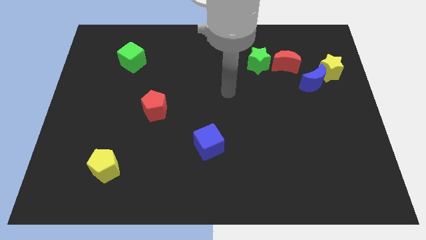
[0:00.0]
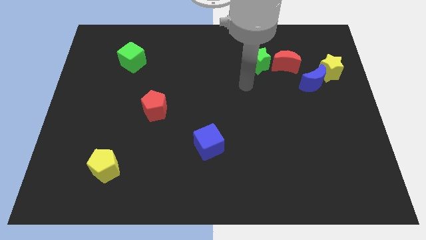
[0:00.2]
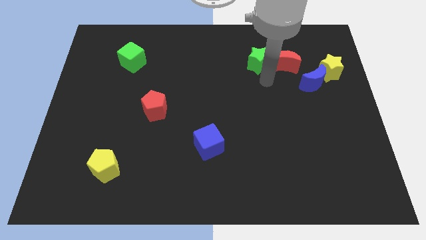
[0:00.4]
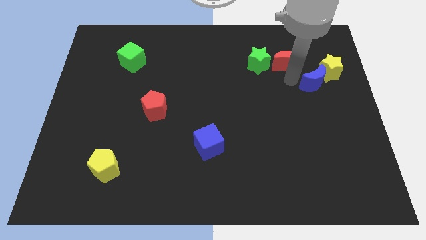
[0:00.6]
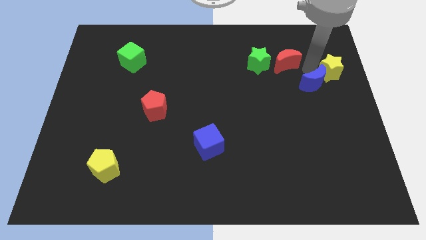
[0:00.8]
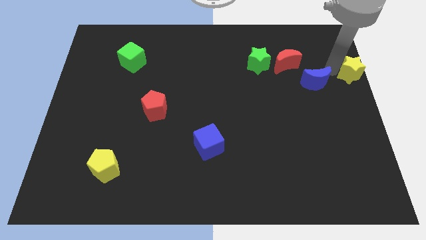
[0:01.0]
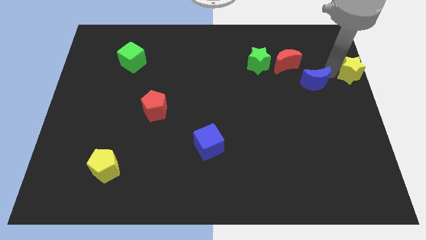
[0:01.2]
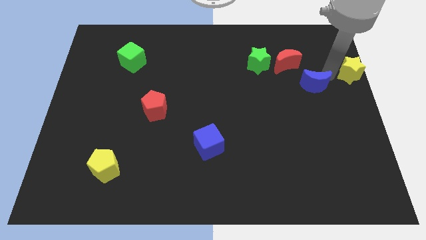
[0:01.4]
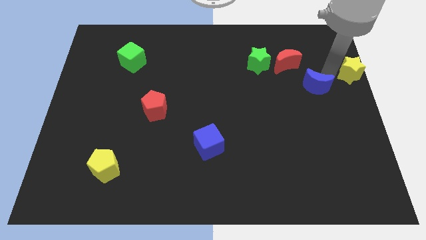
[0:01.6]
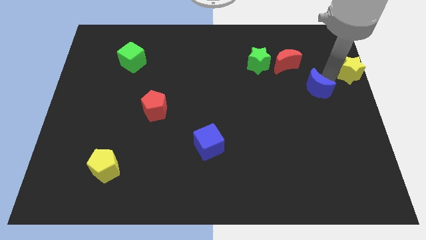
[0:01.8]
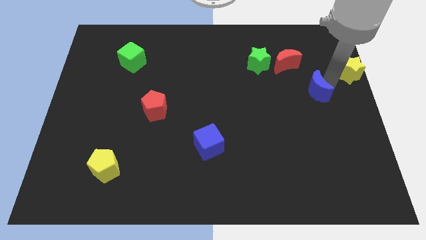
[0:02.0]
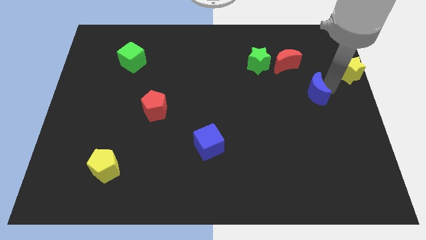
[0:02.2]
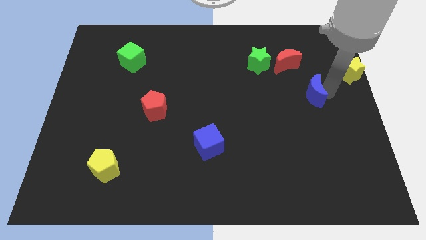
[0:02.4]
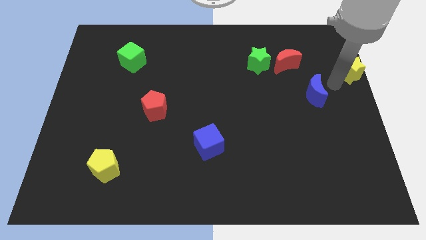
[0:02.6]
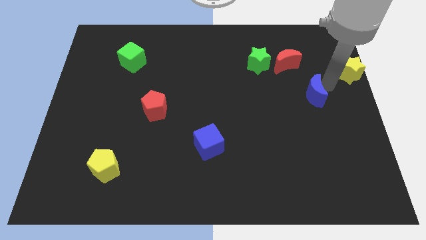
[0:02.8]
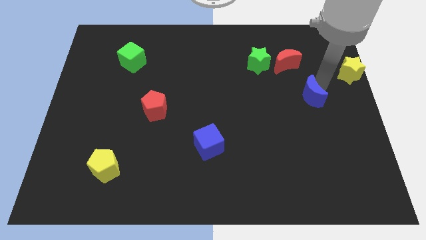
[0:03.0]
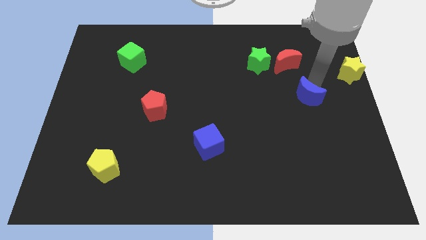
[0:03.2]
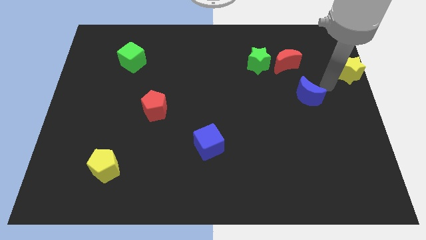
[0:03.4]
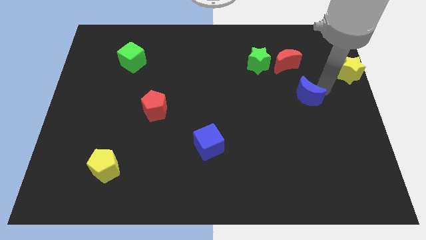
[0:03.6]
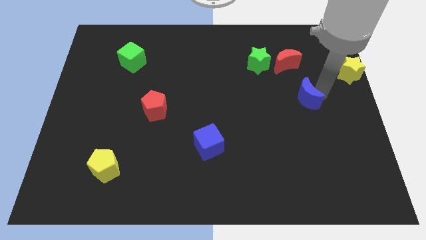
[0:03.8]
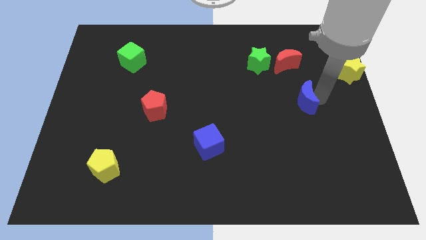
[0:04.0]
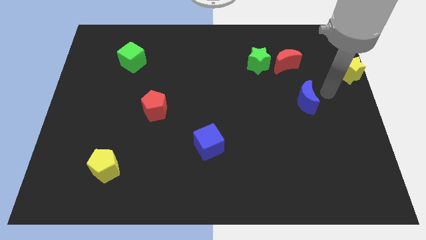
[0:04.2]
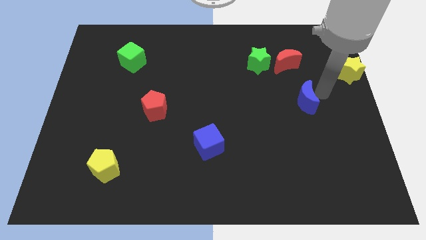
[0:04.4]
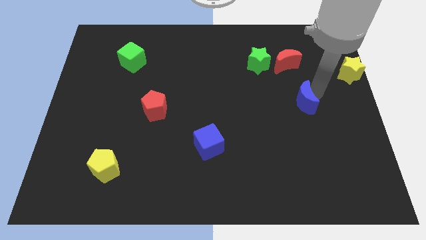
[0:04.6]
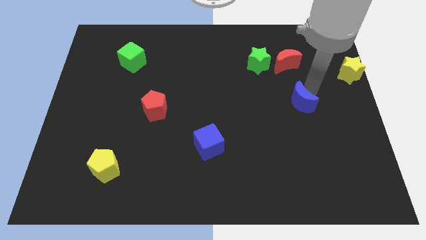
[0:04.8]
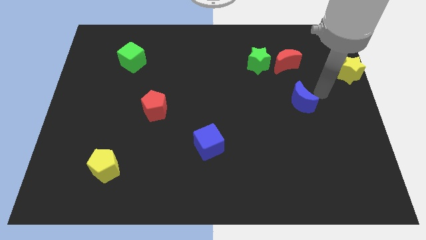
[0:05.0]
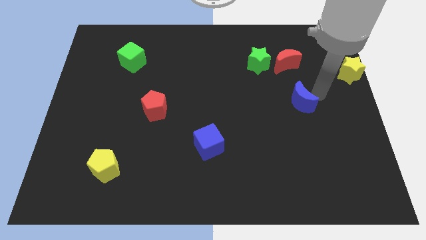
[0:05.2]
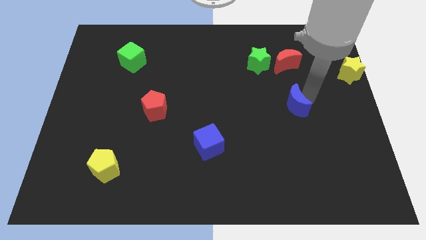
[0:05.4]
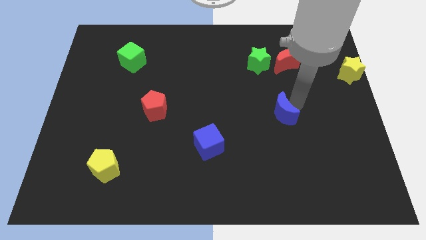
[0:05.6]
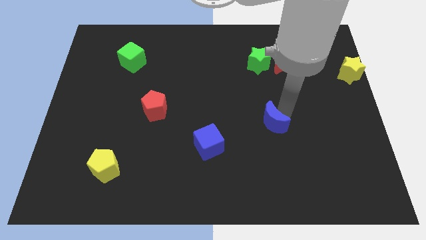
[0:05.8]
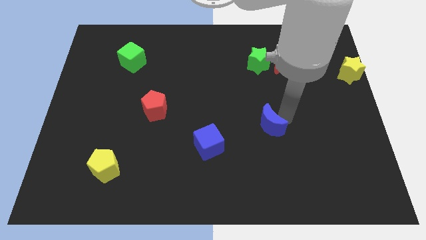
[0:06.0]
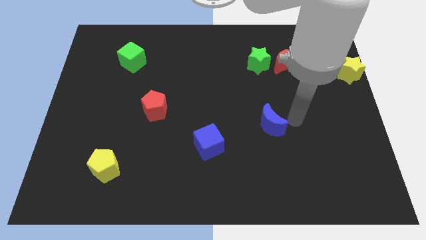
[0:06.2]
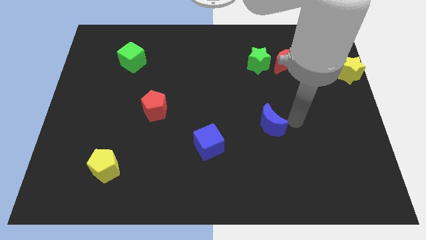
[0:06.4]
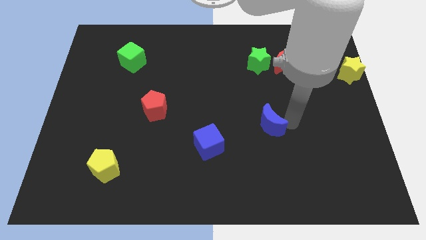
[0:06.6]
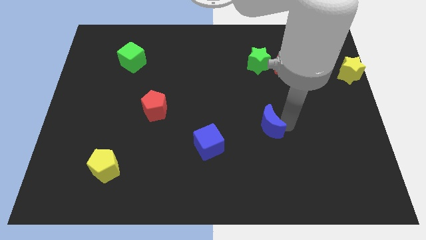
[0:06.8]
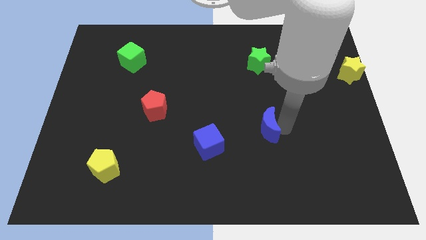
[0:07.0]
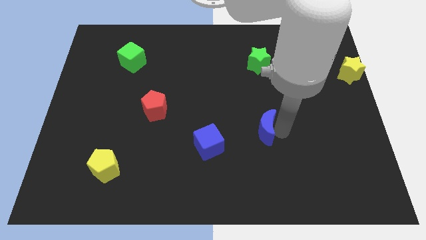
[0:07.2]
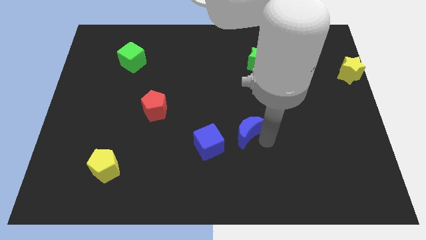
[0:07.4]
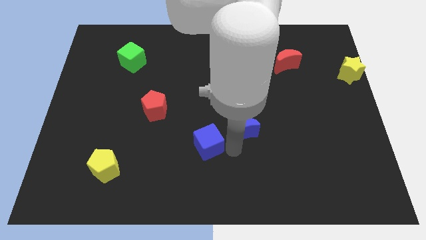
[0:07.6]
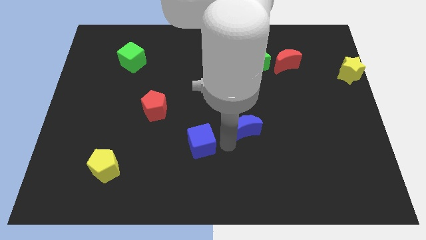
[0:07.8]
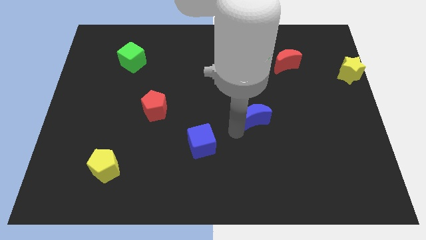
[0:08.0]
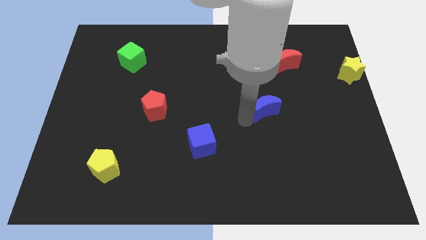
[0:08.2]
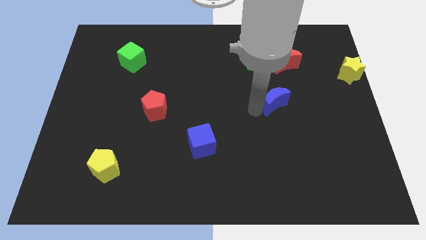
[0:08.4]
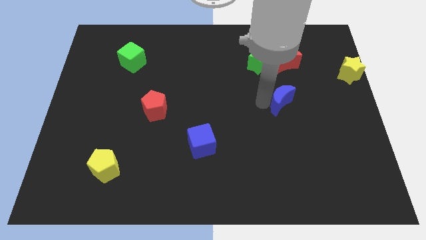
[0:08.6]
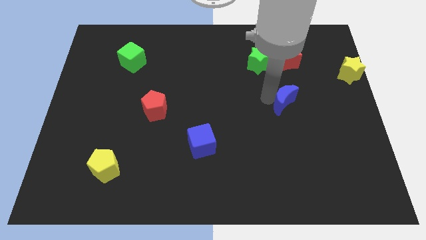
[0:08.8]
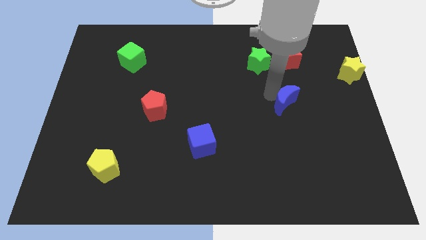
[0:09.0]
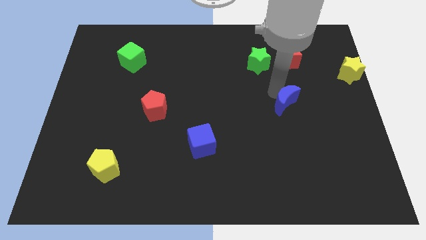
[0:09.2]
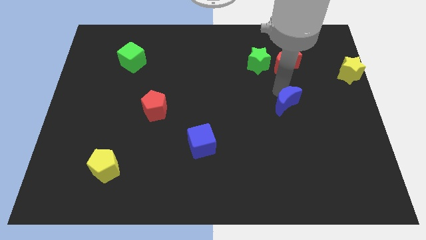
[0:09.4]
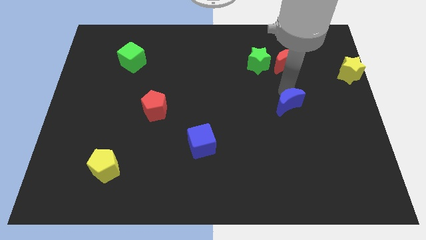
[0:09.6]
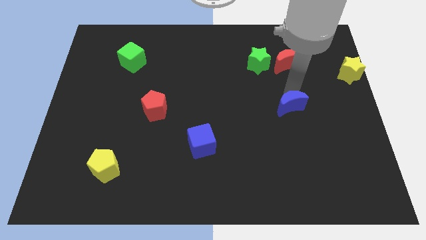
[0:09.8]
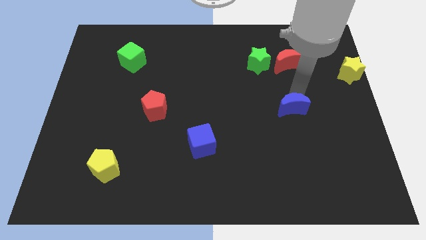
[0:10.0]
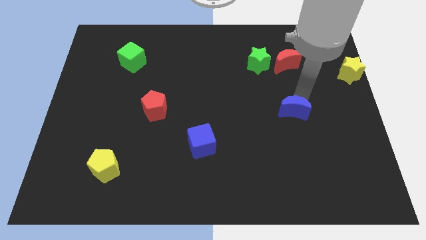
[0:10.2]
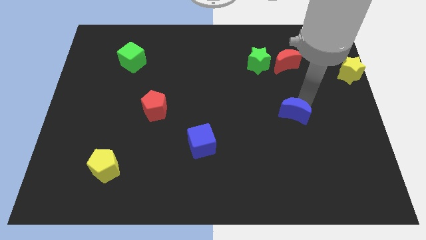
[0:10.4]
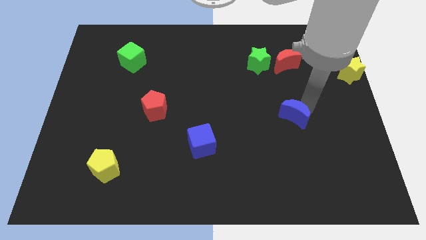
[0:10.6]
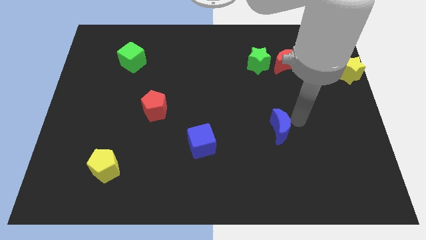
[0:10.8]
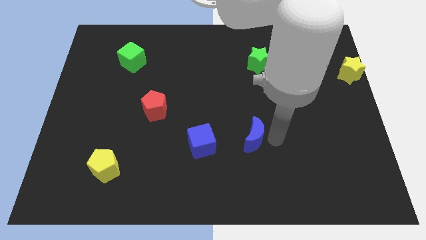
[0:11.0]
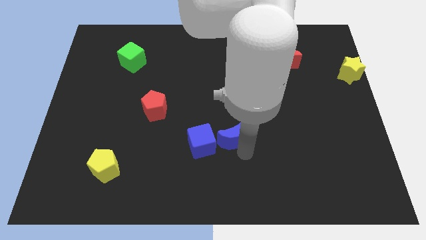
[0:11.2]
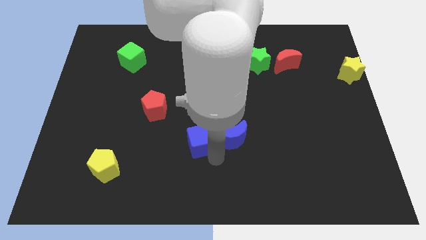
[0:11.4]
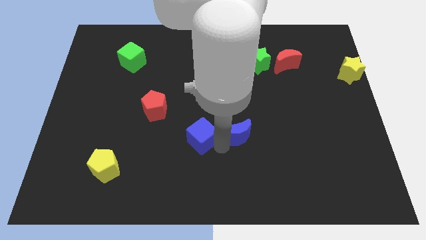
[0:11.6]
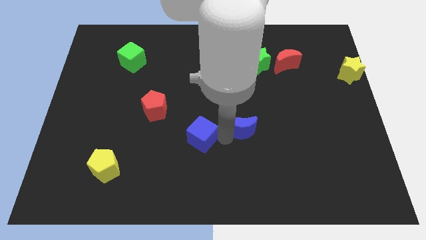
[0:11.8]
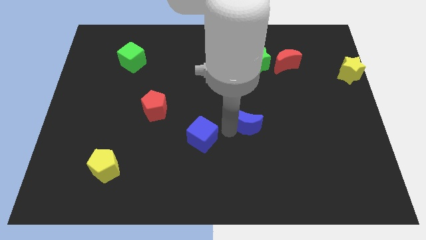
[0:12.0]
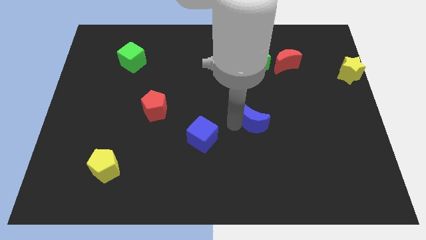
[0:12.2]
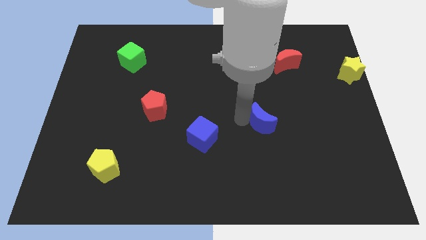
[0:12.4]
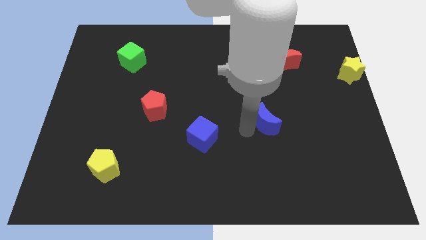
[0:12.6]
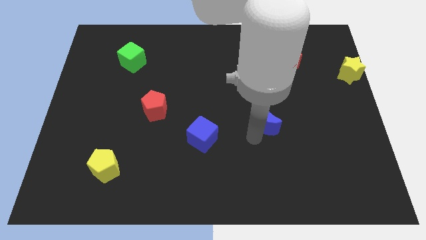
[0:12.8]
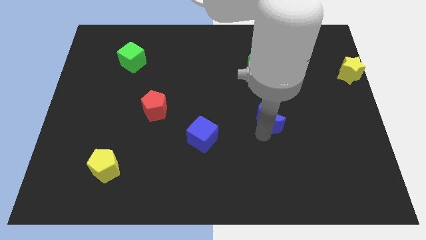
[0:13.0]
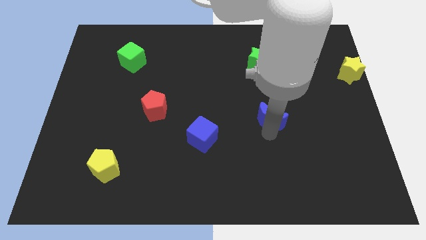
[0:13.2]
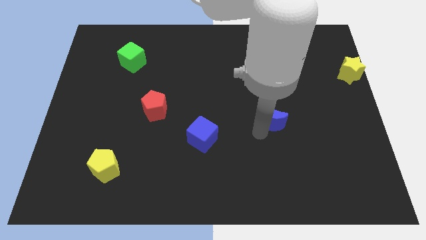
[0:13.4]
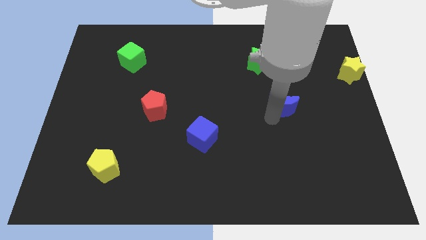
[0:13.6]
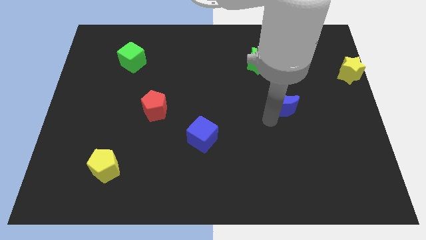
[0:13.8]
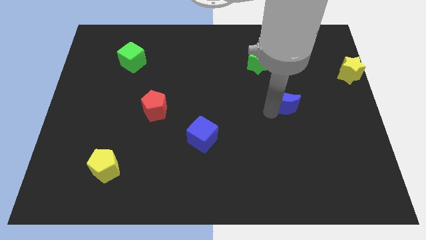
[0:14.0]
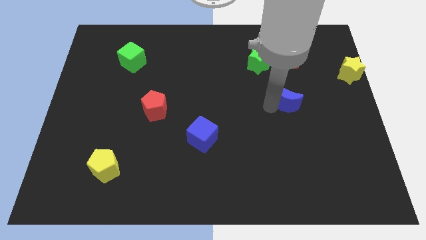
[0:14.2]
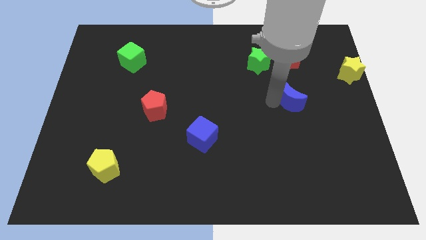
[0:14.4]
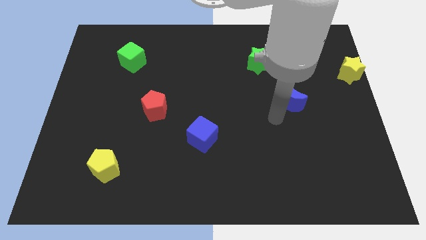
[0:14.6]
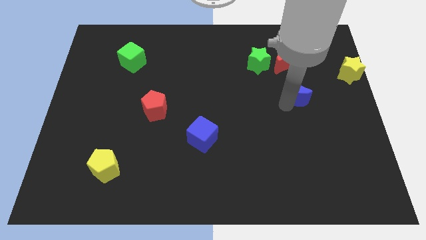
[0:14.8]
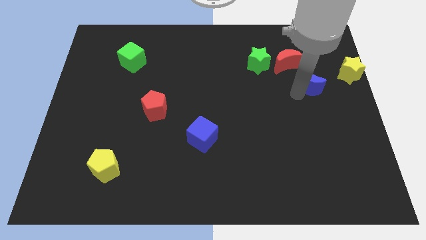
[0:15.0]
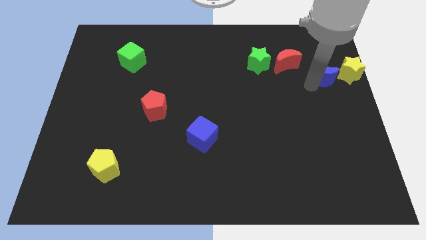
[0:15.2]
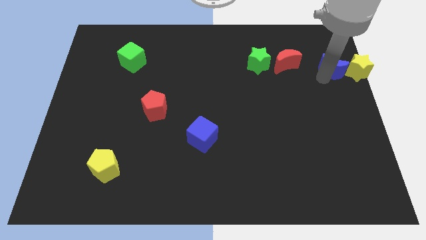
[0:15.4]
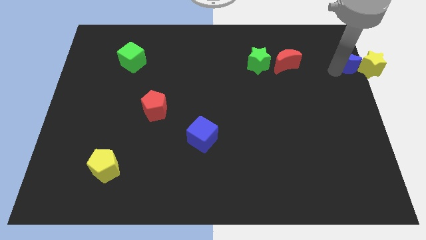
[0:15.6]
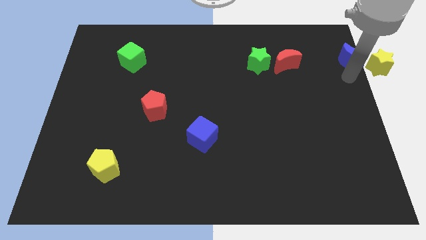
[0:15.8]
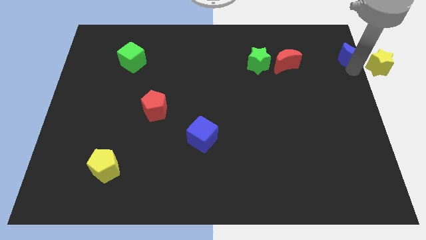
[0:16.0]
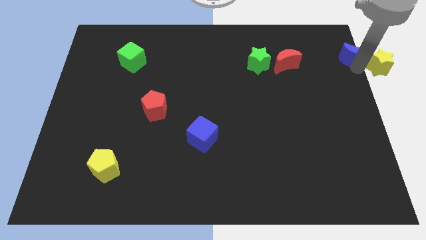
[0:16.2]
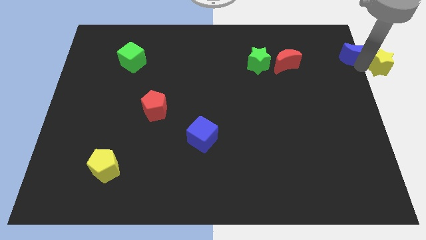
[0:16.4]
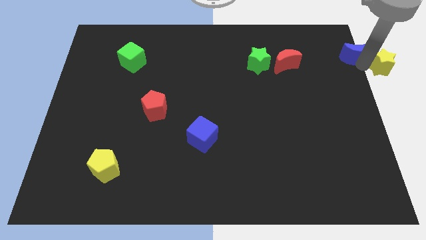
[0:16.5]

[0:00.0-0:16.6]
slide the blue moon to the top right of the board
